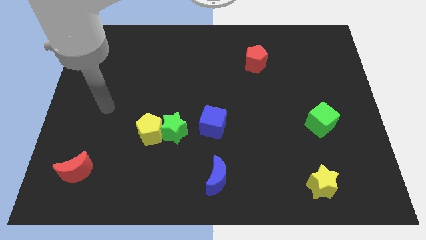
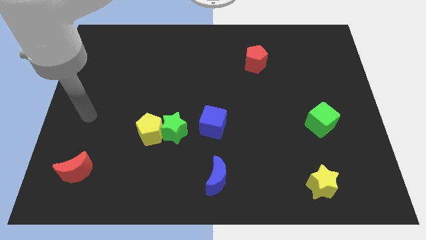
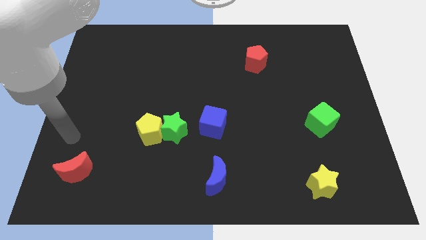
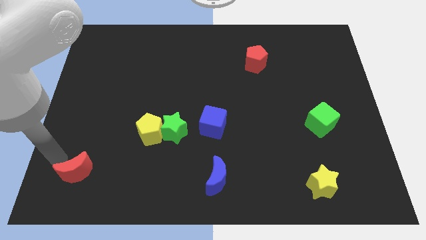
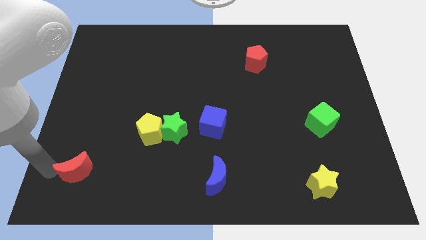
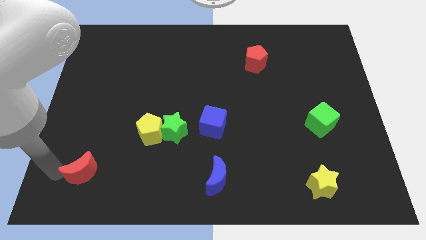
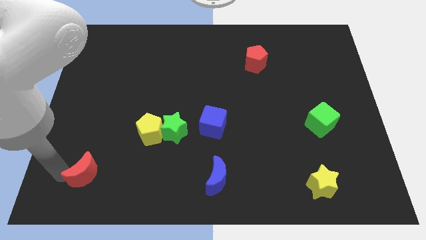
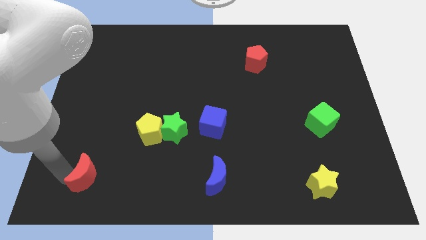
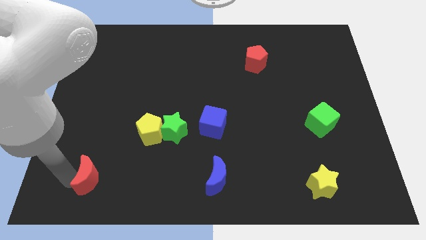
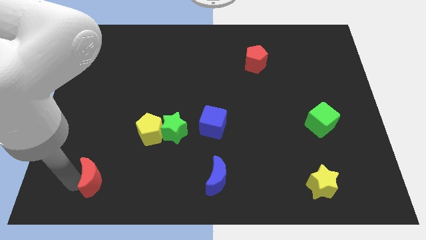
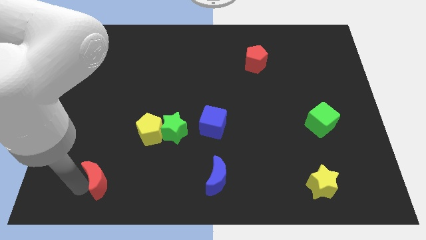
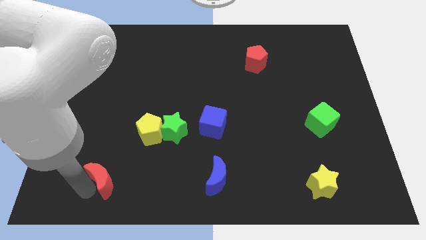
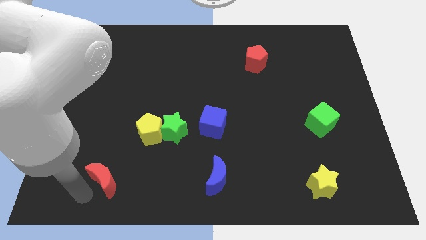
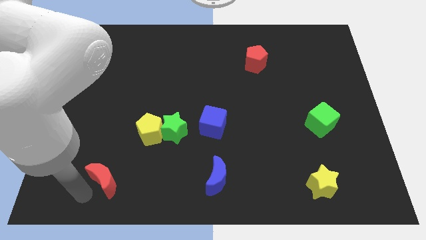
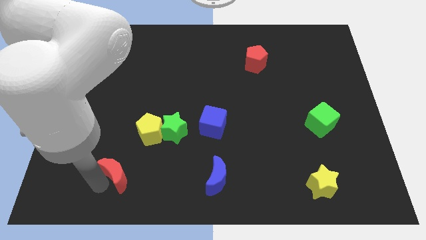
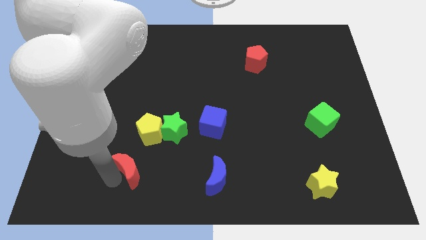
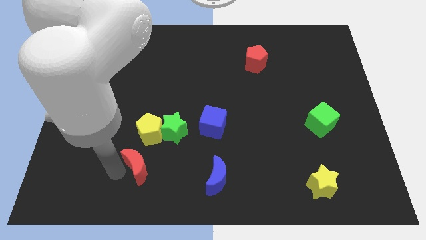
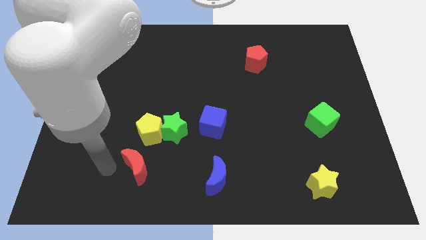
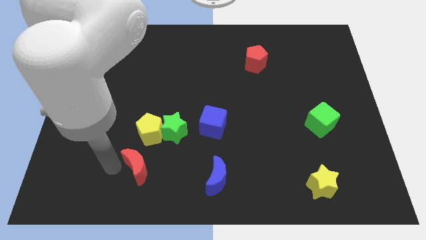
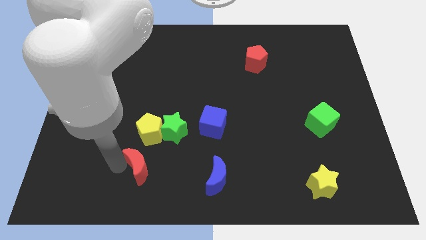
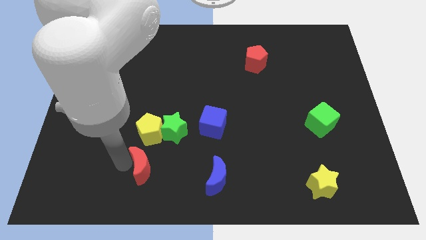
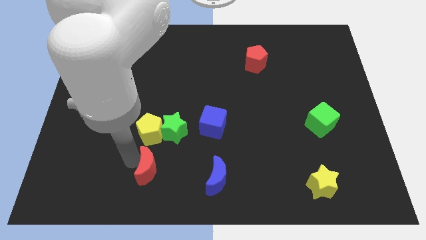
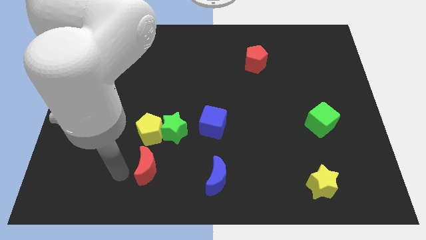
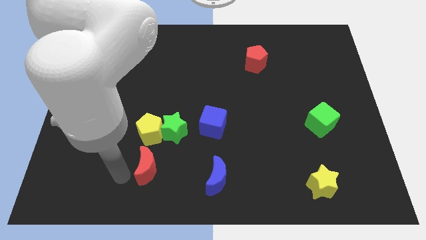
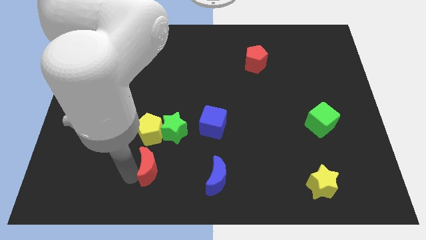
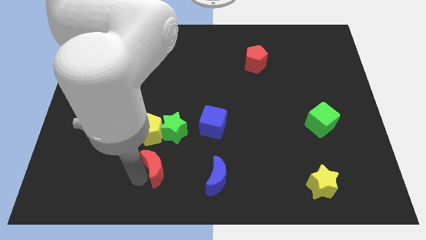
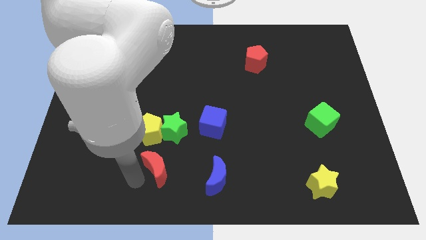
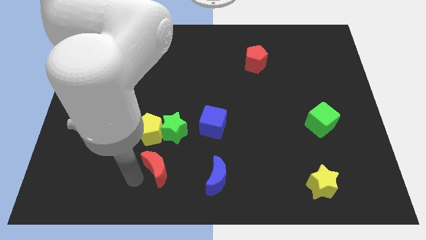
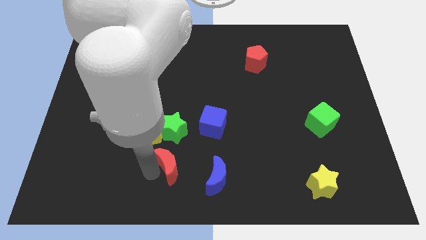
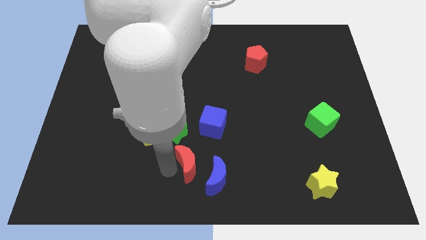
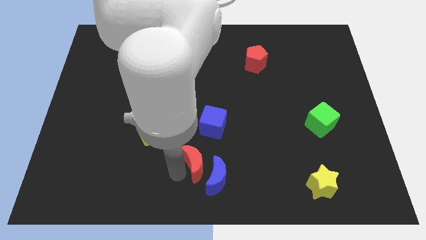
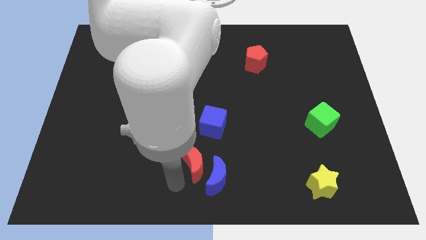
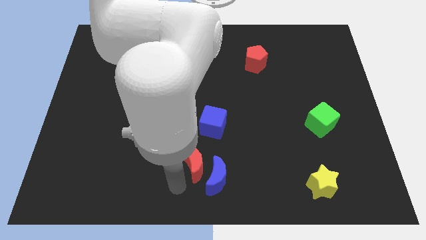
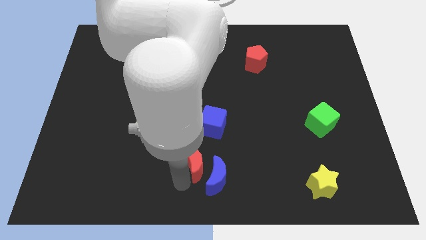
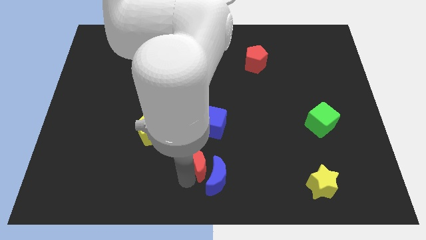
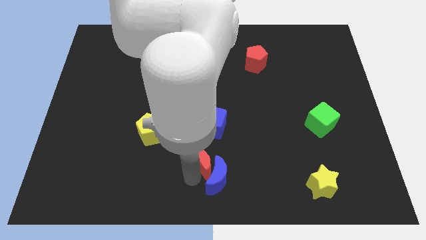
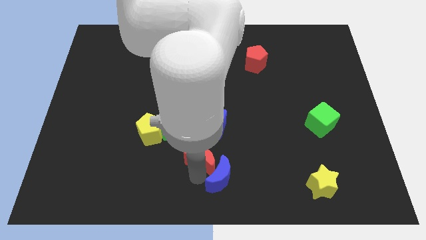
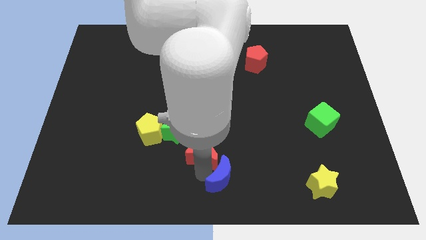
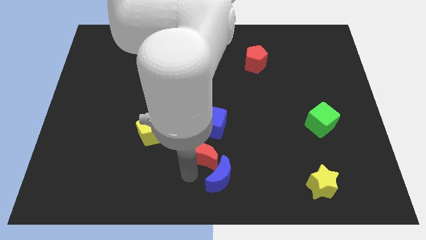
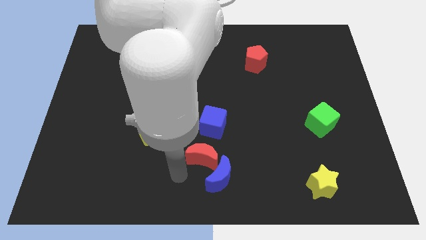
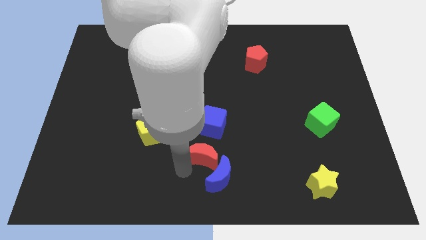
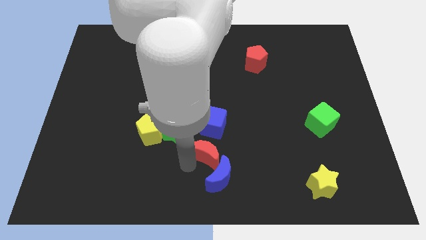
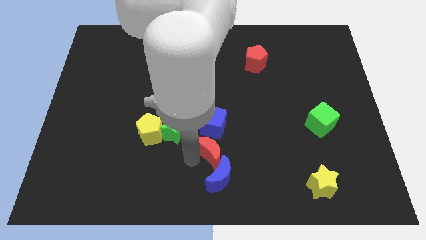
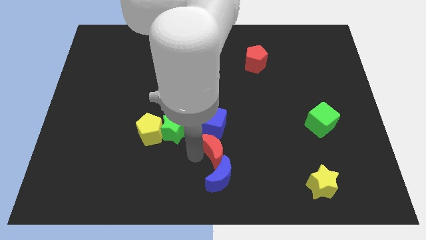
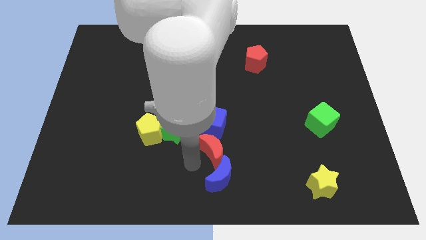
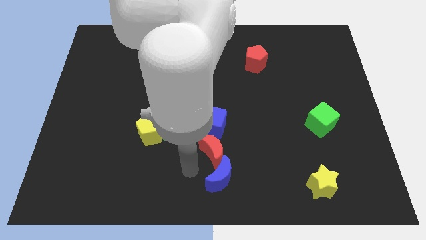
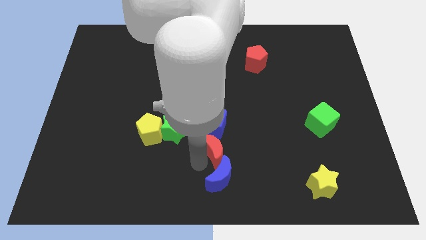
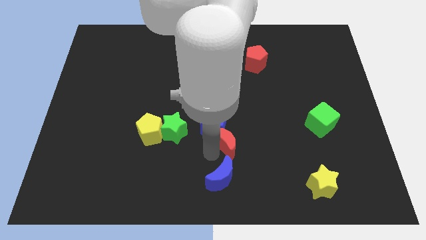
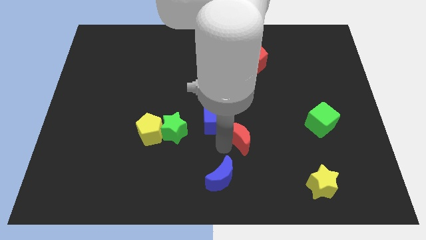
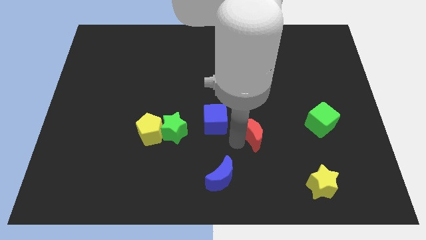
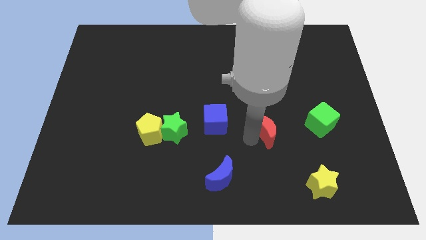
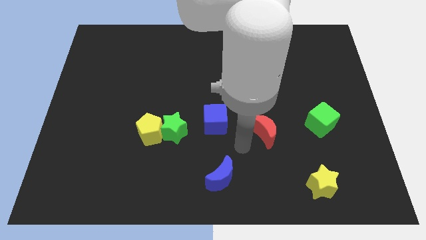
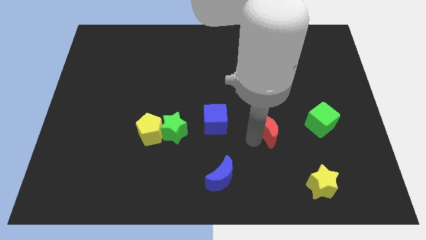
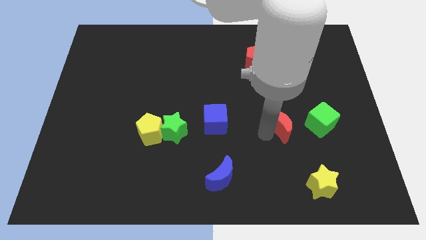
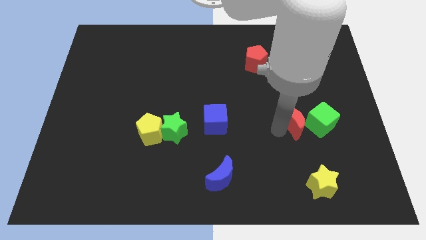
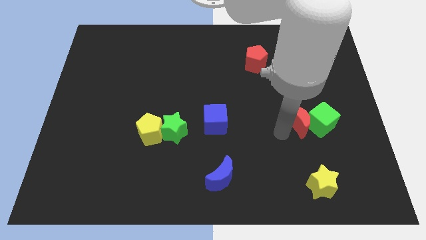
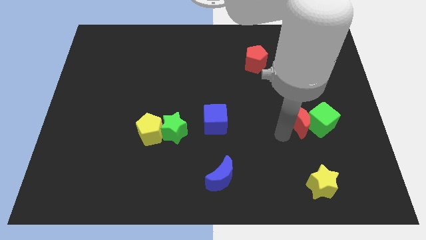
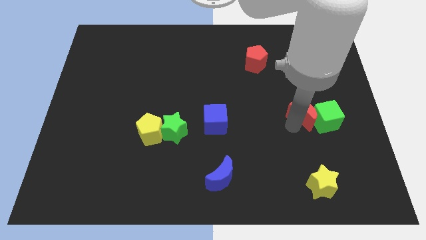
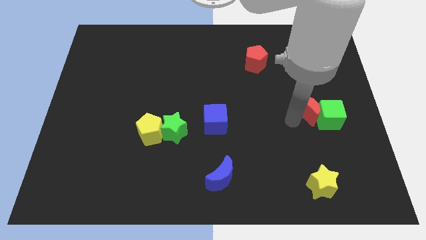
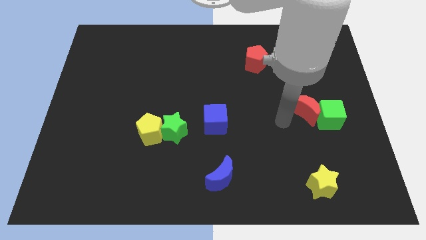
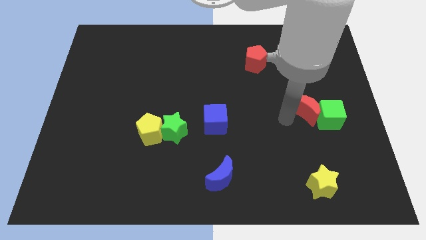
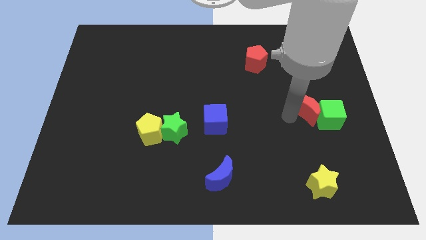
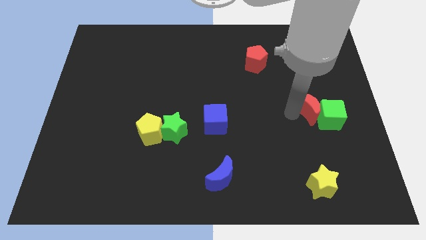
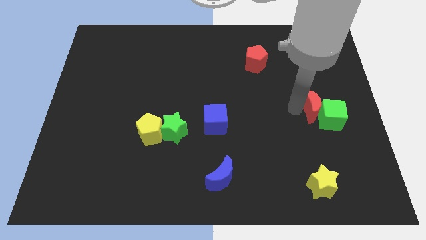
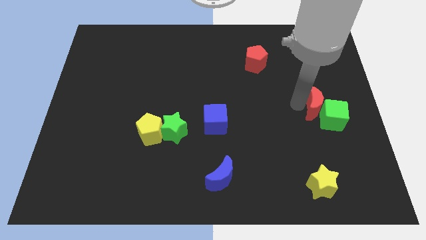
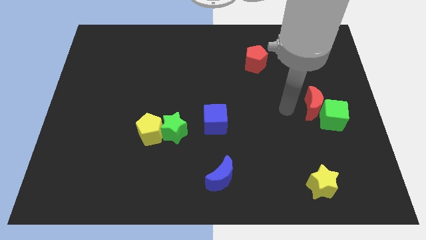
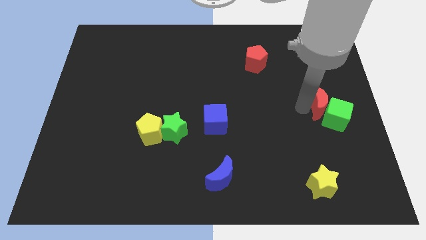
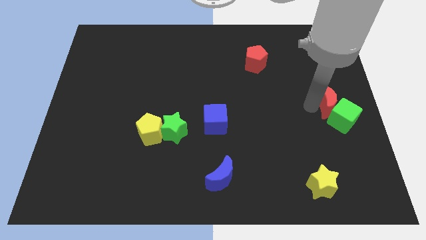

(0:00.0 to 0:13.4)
put the red moon to the right side
